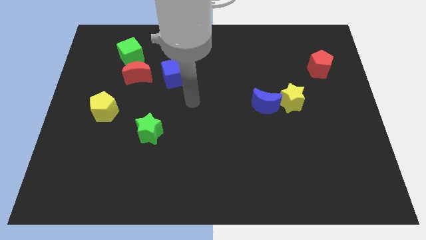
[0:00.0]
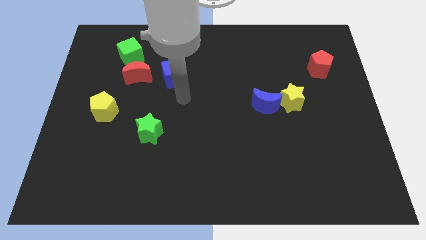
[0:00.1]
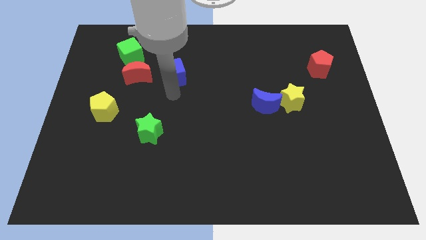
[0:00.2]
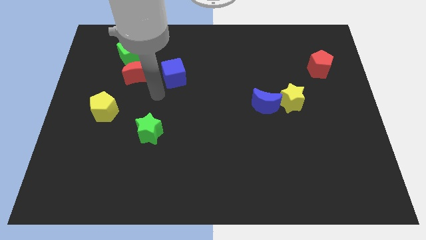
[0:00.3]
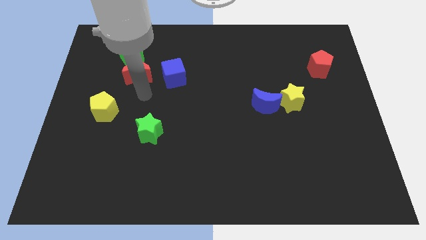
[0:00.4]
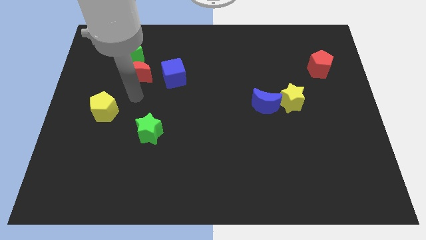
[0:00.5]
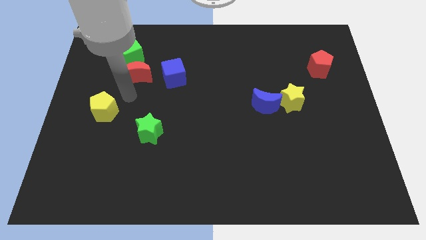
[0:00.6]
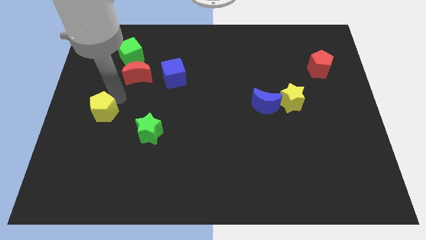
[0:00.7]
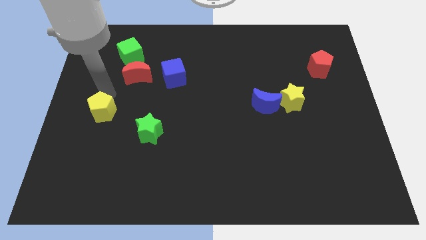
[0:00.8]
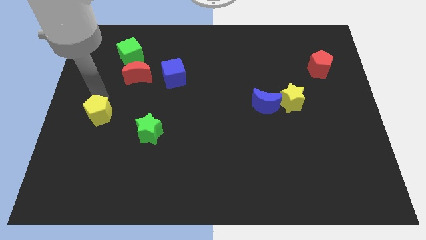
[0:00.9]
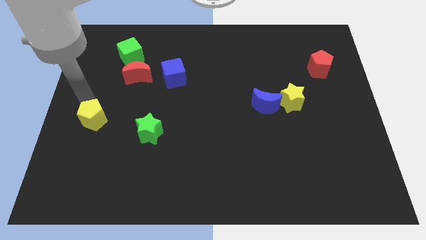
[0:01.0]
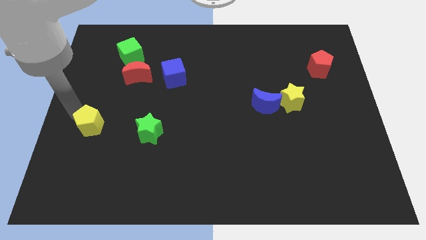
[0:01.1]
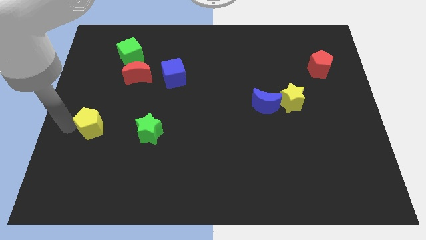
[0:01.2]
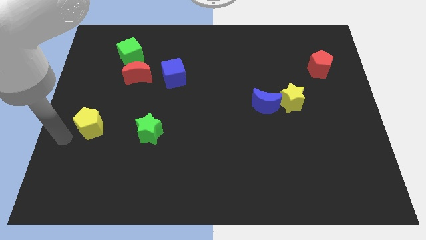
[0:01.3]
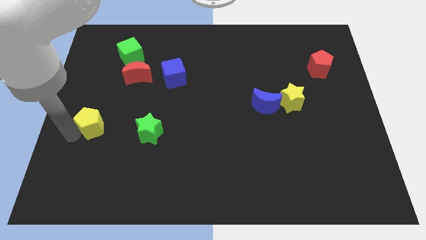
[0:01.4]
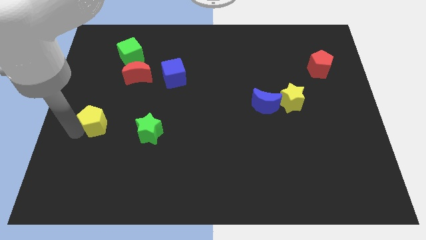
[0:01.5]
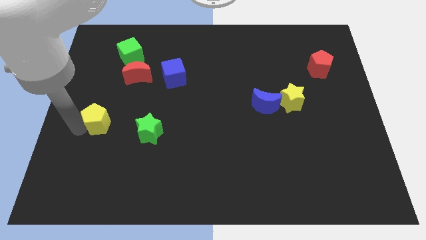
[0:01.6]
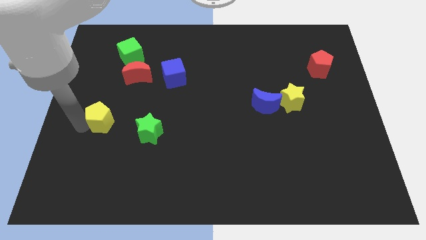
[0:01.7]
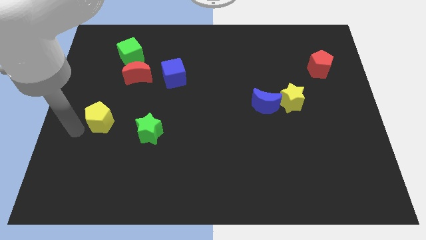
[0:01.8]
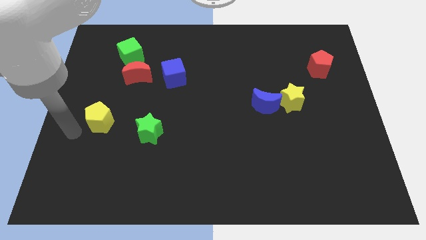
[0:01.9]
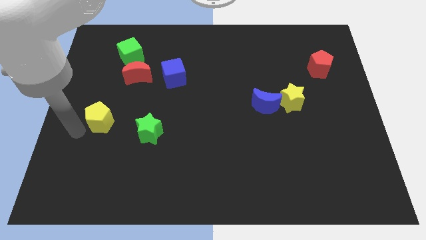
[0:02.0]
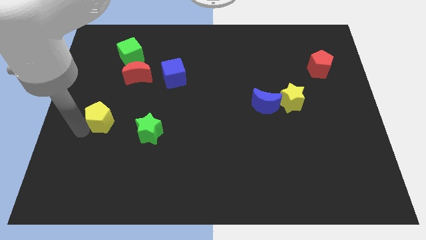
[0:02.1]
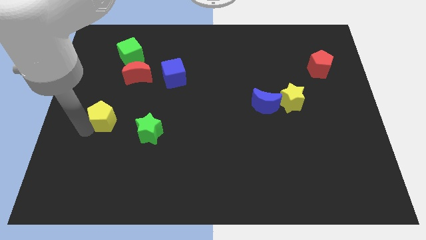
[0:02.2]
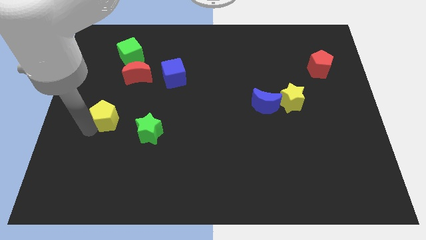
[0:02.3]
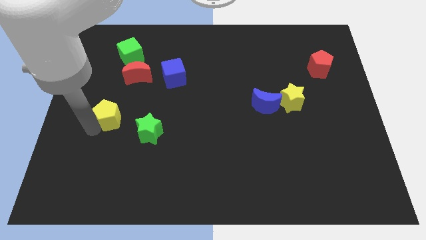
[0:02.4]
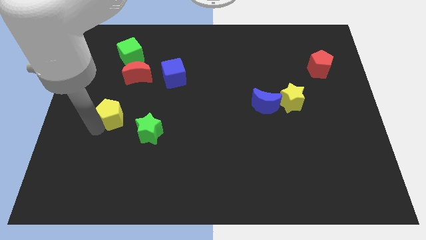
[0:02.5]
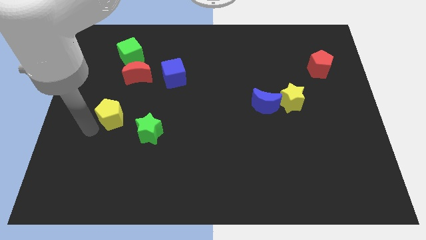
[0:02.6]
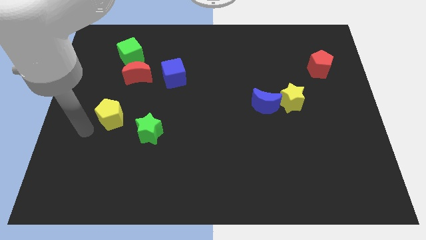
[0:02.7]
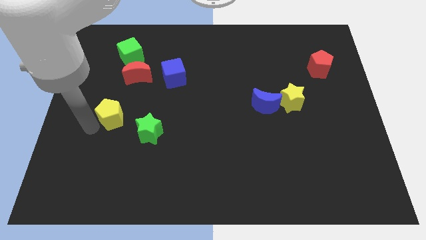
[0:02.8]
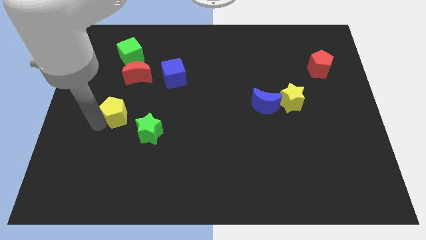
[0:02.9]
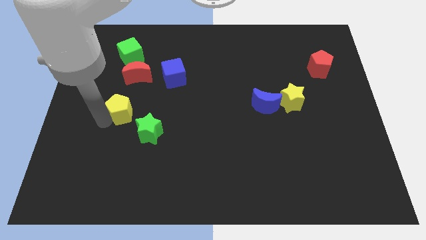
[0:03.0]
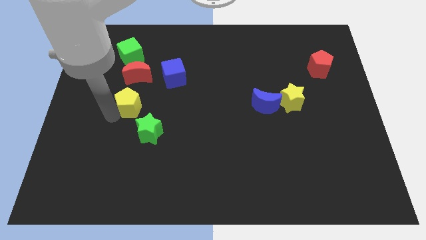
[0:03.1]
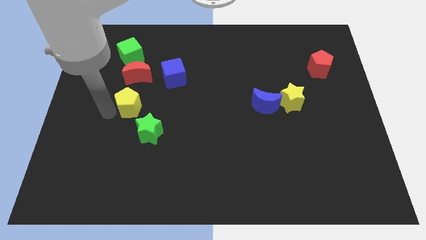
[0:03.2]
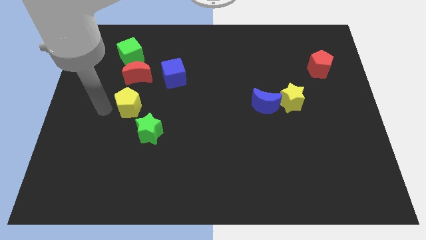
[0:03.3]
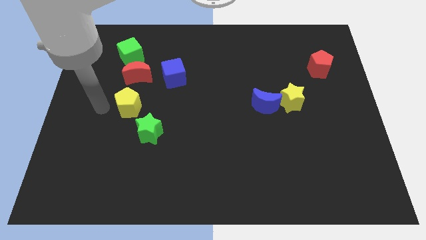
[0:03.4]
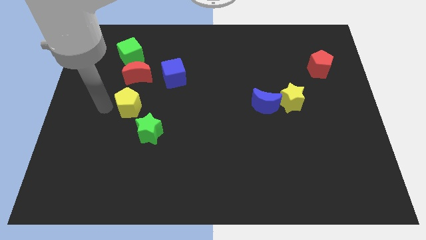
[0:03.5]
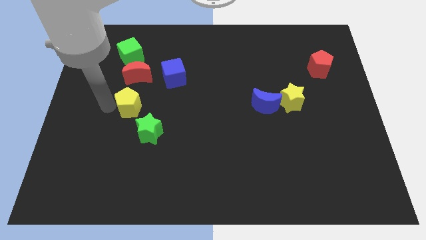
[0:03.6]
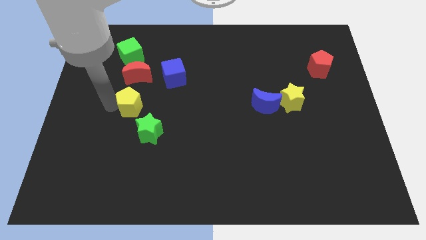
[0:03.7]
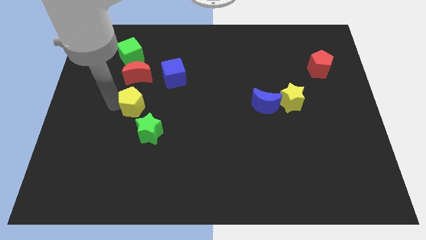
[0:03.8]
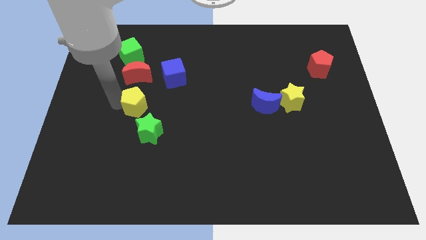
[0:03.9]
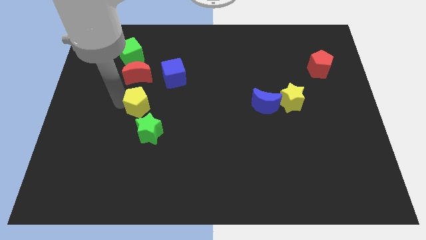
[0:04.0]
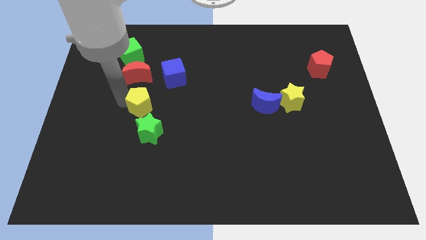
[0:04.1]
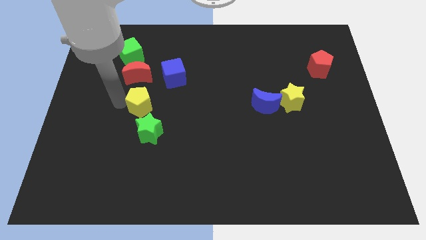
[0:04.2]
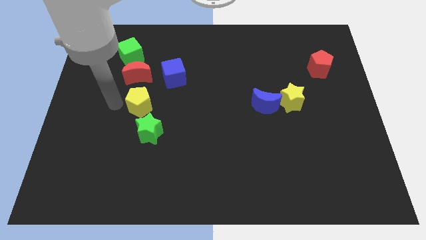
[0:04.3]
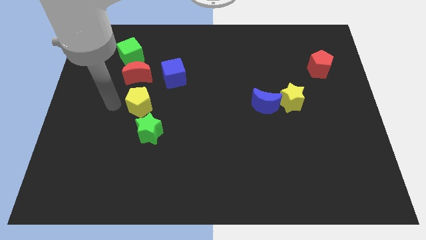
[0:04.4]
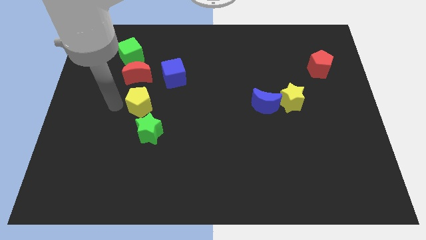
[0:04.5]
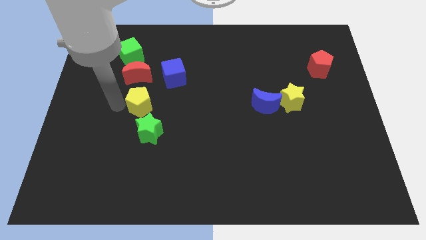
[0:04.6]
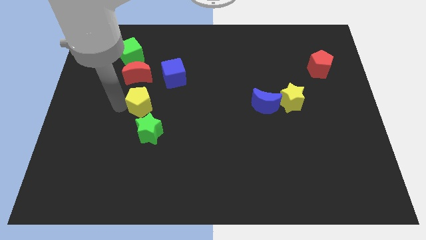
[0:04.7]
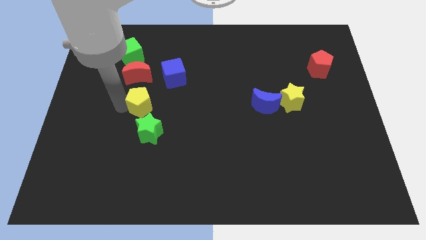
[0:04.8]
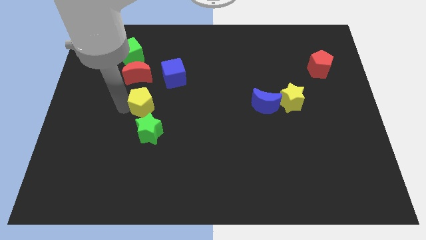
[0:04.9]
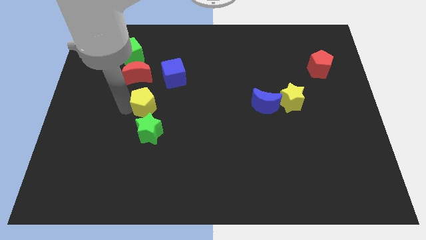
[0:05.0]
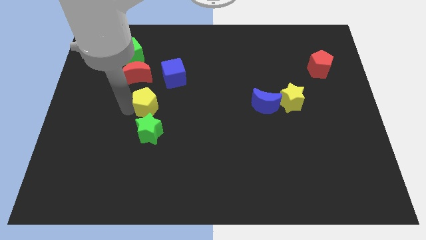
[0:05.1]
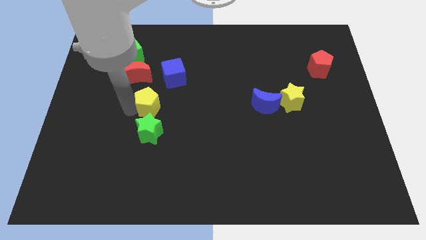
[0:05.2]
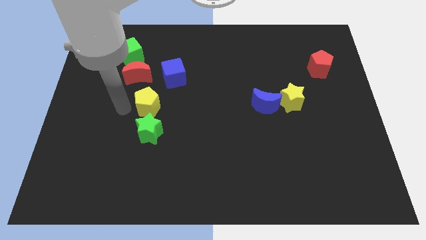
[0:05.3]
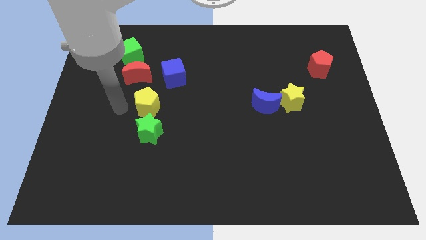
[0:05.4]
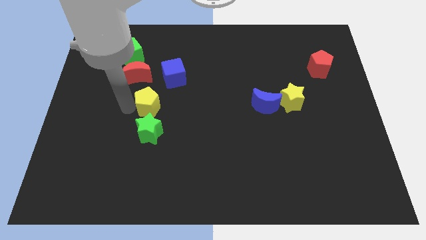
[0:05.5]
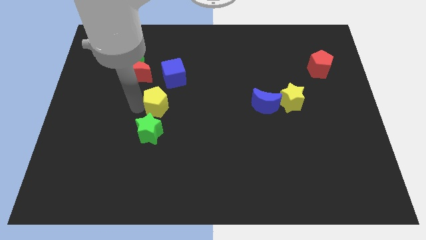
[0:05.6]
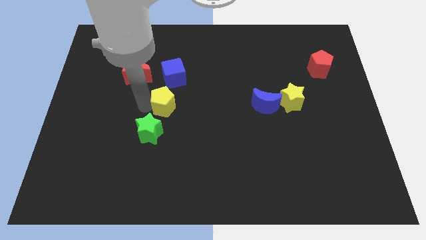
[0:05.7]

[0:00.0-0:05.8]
put the yellow pentagon to the center of the board
